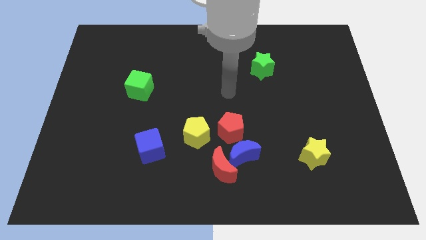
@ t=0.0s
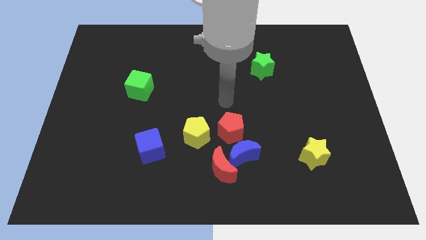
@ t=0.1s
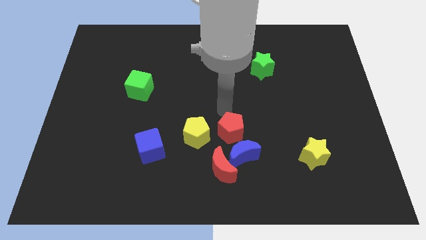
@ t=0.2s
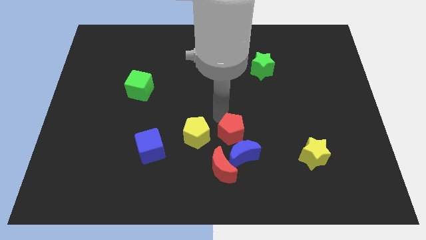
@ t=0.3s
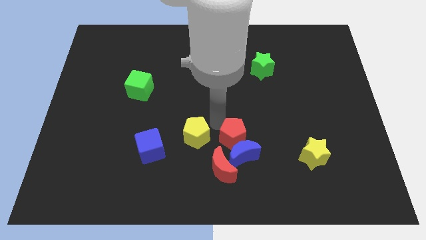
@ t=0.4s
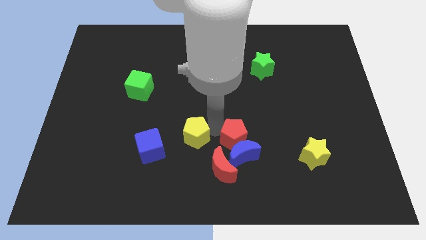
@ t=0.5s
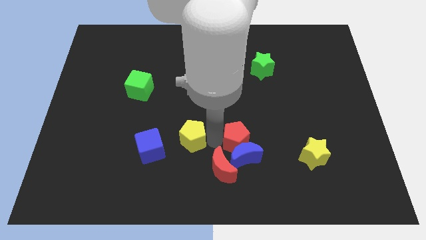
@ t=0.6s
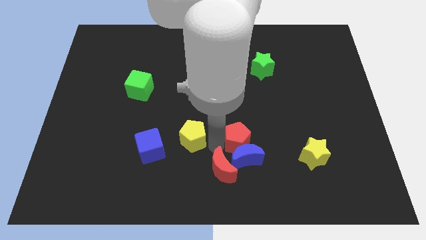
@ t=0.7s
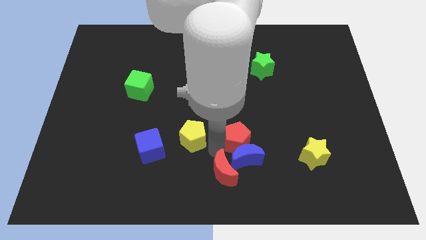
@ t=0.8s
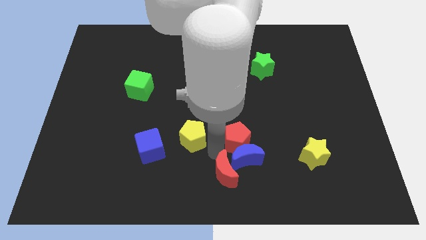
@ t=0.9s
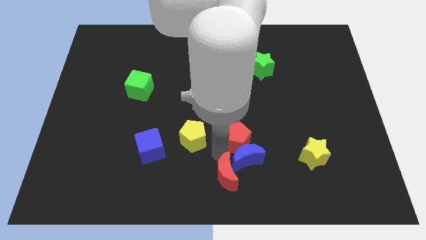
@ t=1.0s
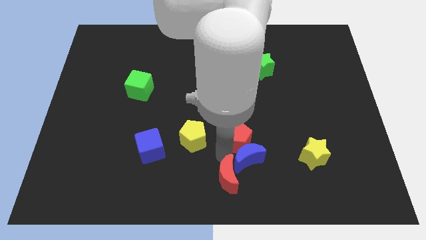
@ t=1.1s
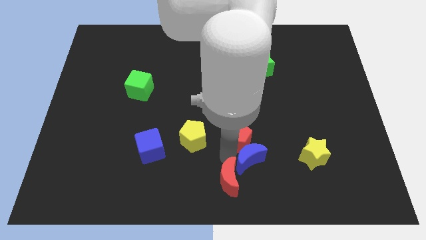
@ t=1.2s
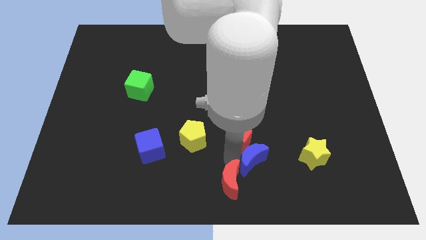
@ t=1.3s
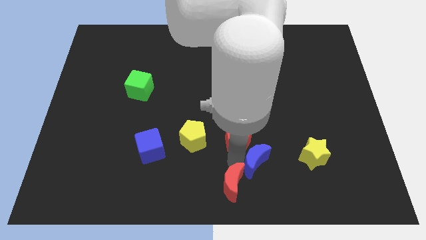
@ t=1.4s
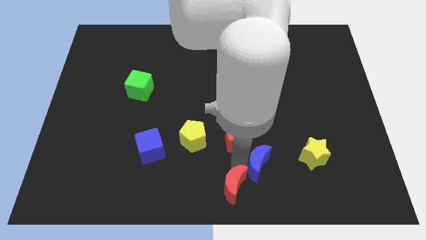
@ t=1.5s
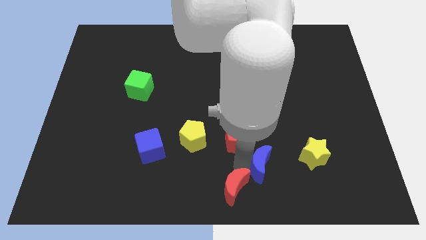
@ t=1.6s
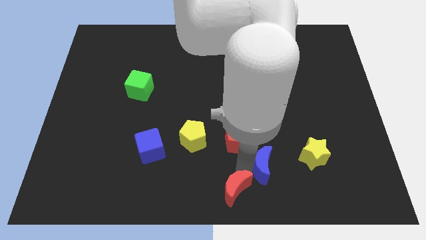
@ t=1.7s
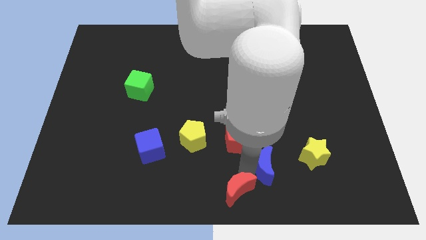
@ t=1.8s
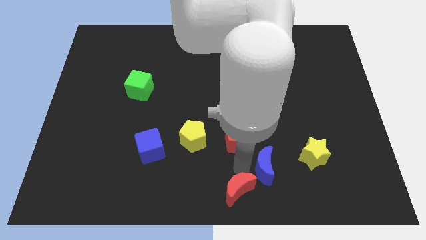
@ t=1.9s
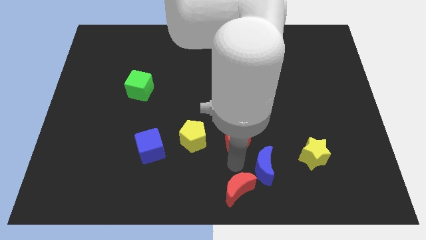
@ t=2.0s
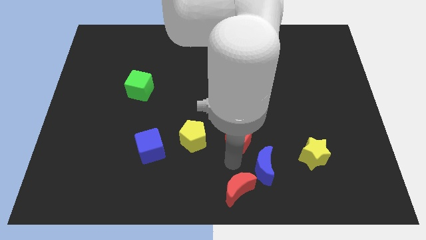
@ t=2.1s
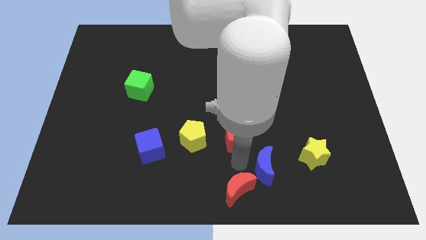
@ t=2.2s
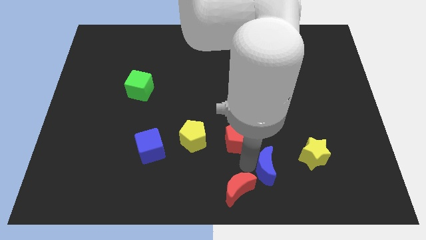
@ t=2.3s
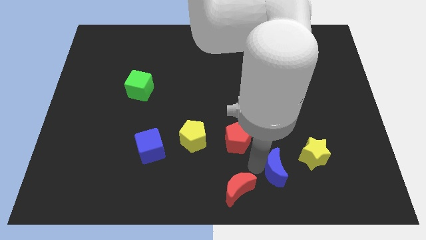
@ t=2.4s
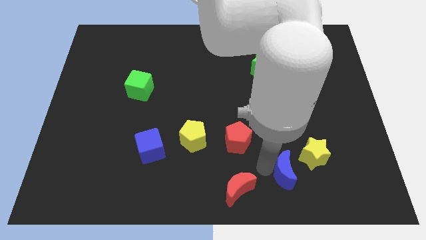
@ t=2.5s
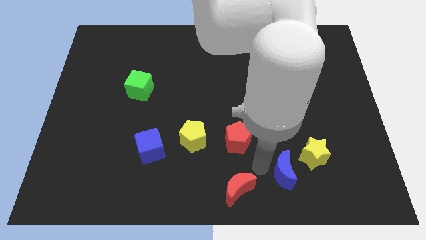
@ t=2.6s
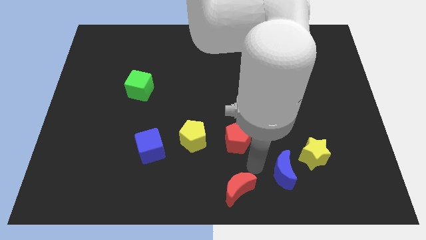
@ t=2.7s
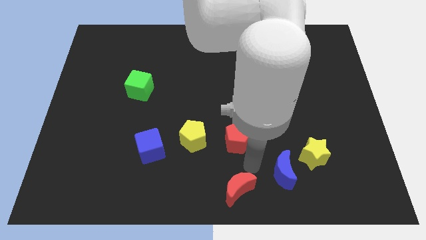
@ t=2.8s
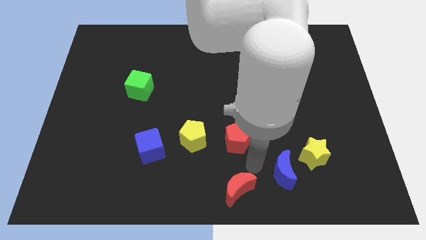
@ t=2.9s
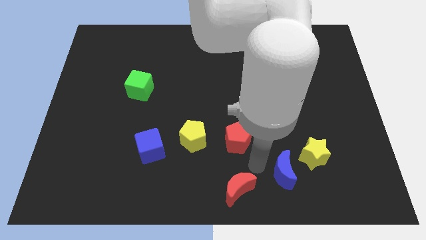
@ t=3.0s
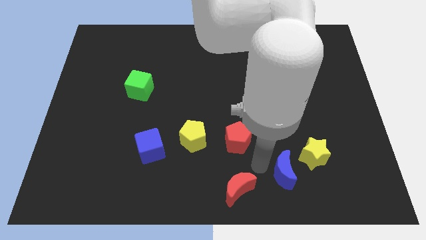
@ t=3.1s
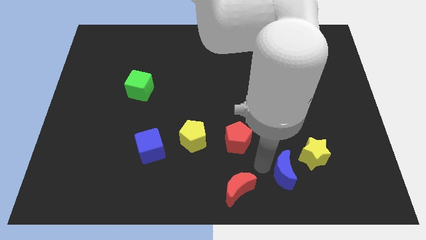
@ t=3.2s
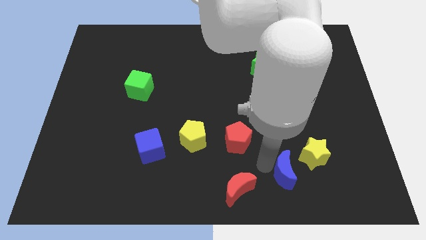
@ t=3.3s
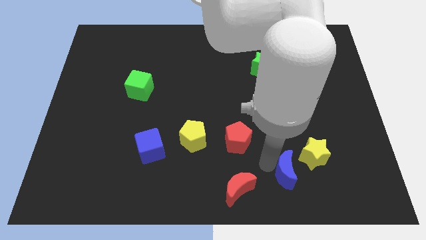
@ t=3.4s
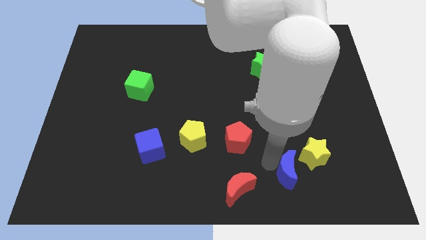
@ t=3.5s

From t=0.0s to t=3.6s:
separate the blue moon from the red moon and red pentagon

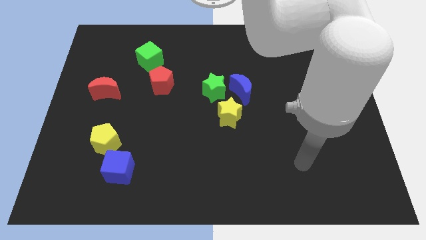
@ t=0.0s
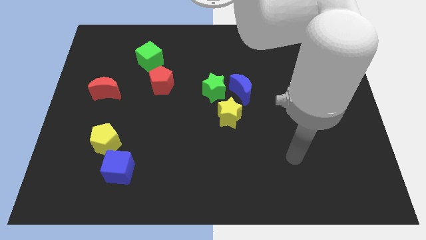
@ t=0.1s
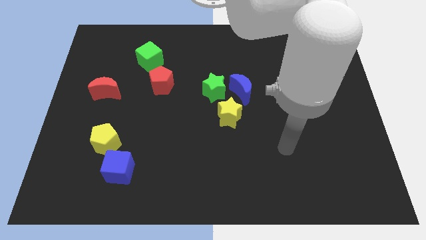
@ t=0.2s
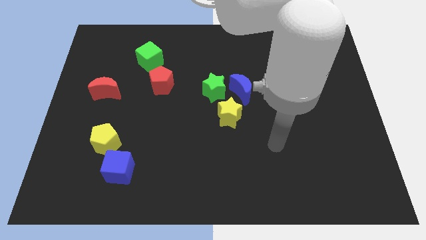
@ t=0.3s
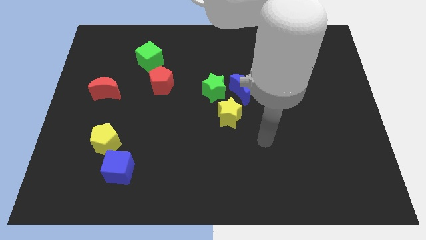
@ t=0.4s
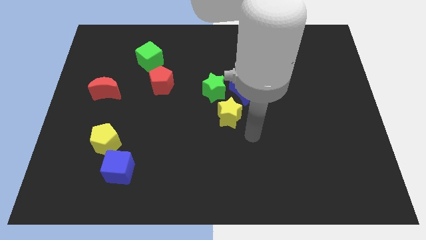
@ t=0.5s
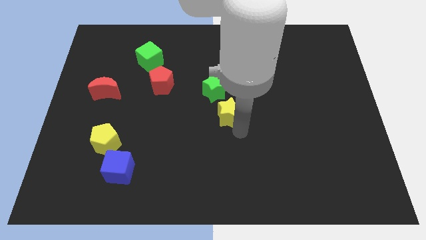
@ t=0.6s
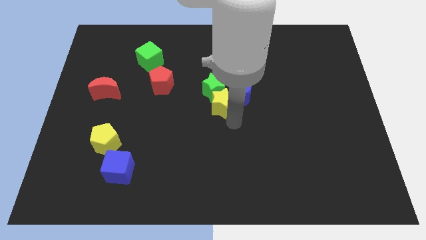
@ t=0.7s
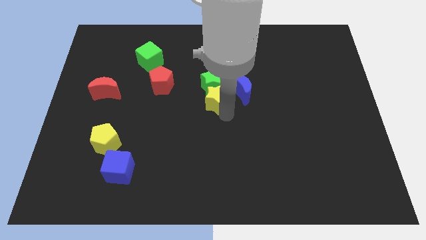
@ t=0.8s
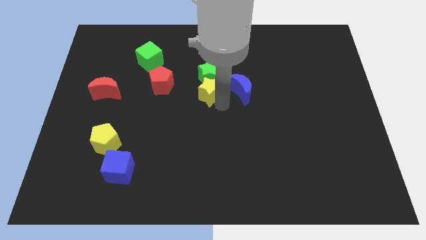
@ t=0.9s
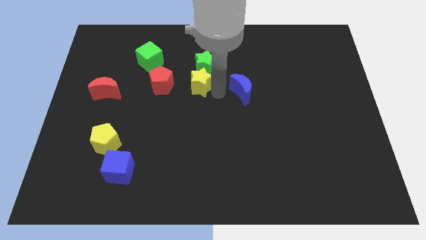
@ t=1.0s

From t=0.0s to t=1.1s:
separate the blue moon from the green star and yellow star

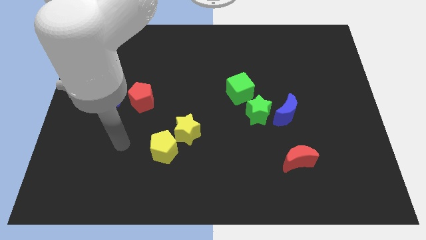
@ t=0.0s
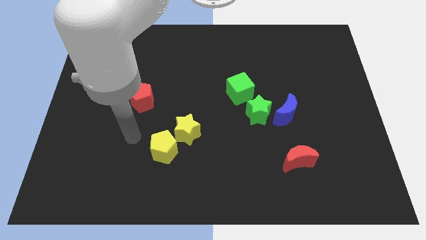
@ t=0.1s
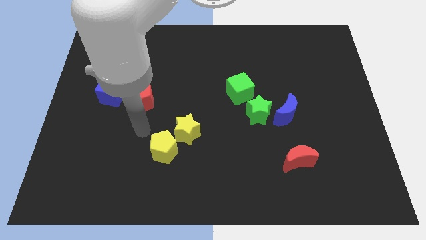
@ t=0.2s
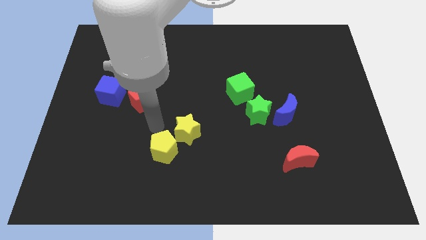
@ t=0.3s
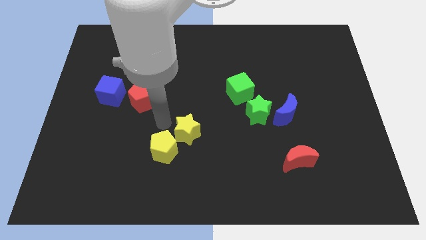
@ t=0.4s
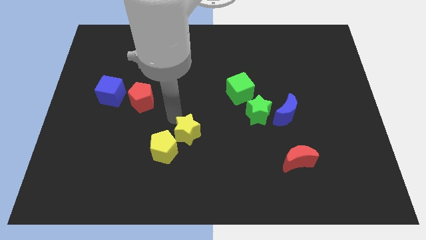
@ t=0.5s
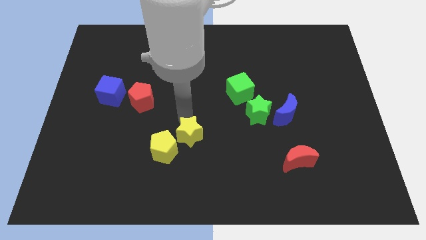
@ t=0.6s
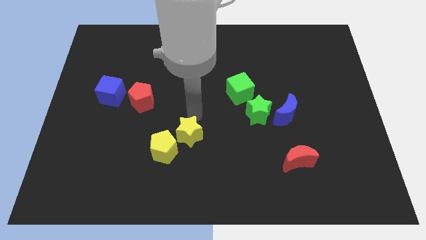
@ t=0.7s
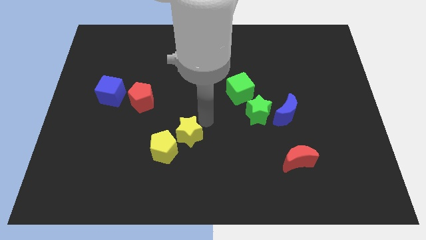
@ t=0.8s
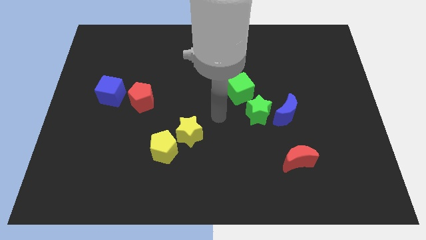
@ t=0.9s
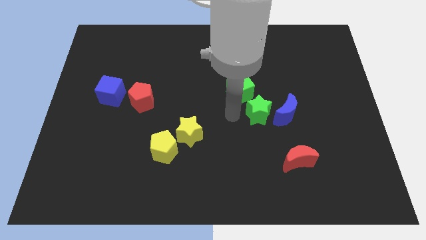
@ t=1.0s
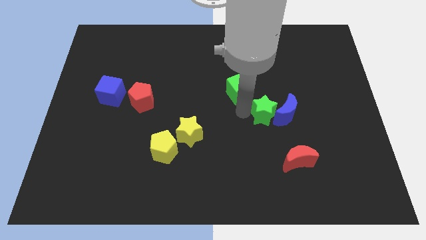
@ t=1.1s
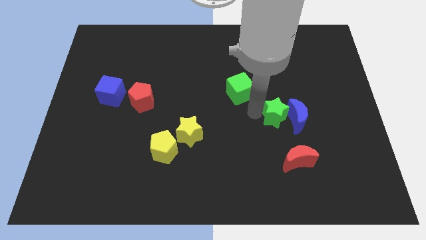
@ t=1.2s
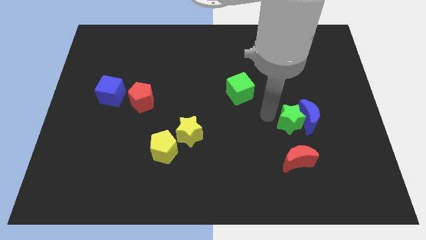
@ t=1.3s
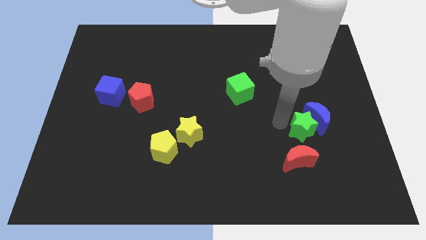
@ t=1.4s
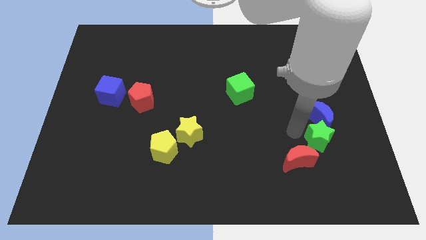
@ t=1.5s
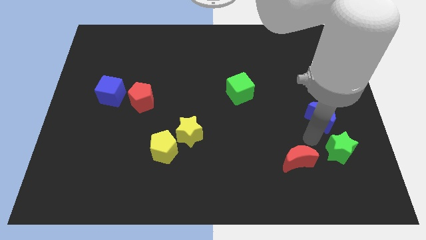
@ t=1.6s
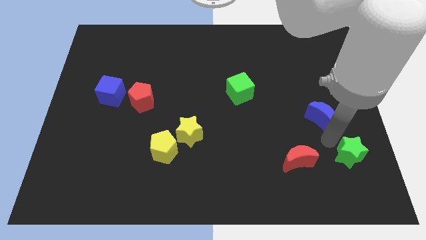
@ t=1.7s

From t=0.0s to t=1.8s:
pull the blue moon apart from the green star

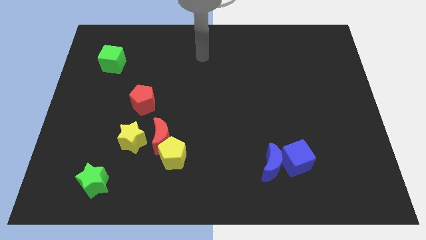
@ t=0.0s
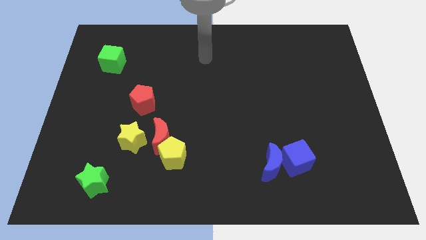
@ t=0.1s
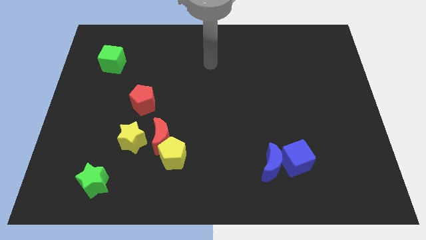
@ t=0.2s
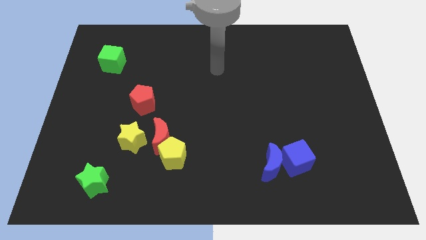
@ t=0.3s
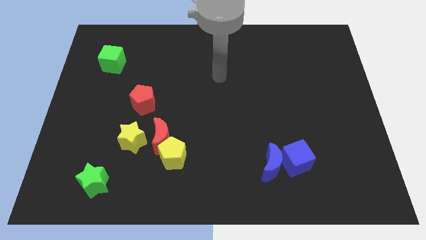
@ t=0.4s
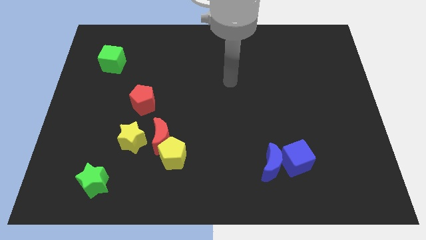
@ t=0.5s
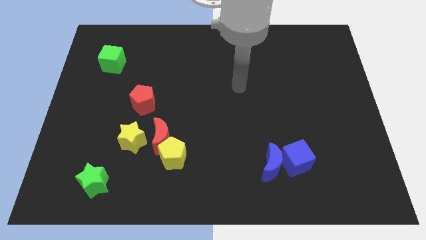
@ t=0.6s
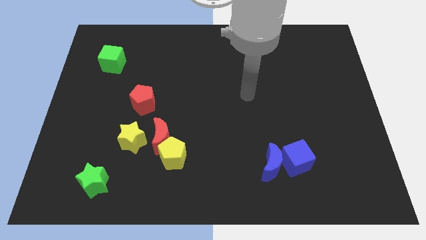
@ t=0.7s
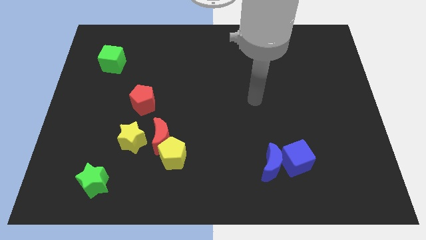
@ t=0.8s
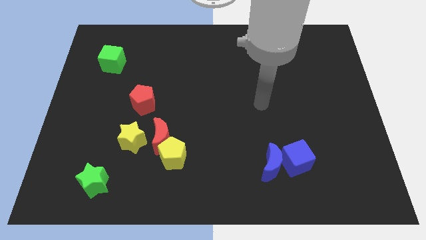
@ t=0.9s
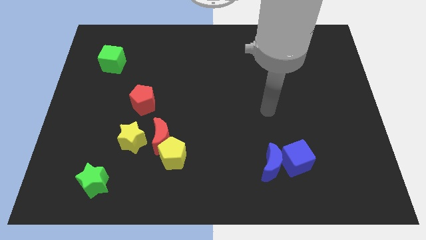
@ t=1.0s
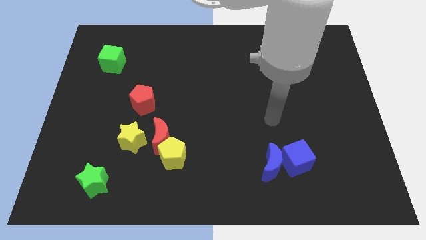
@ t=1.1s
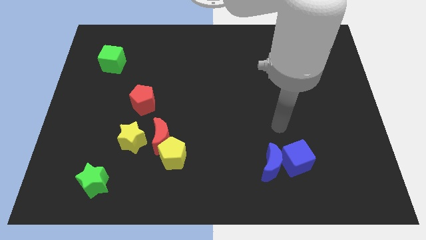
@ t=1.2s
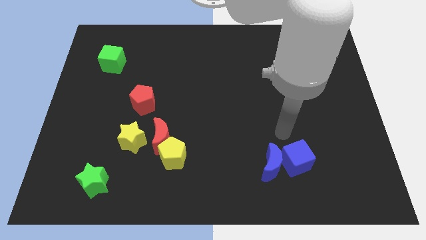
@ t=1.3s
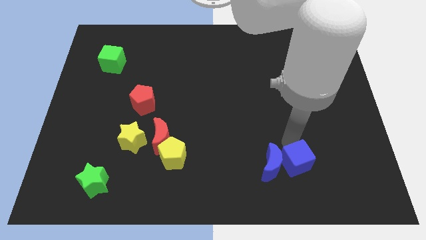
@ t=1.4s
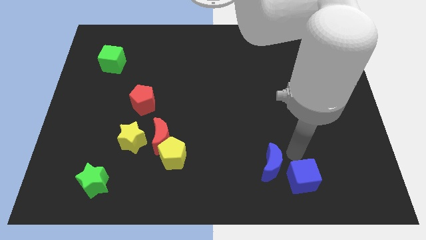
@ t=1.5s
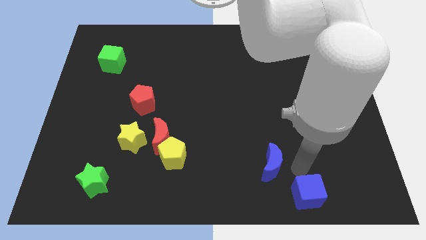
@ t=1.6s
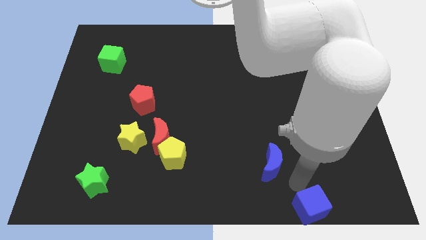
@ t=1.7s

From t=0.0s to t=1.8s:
move the blue moon away from the blue cube

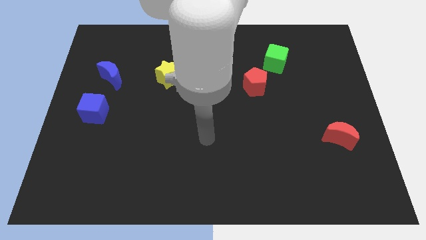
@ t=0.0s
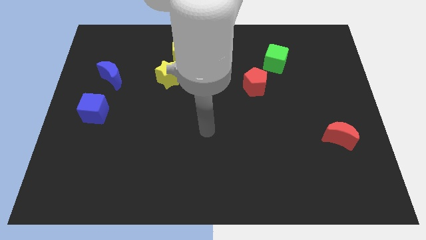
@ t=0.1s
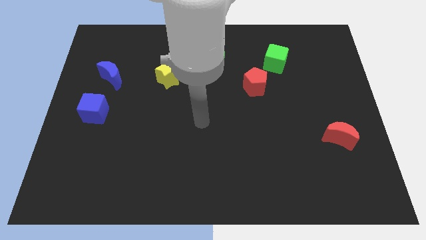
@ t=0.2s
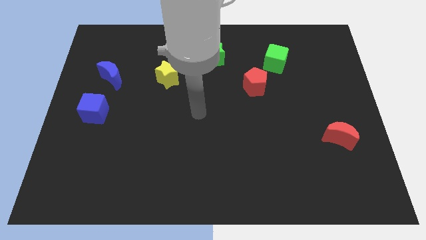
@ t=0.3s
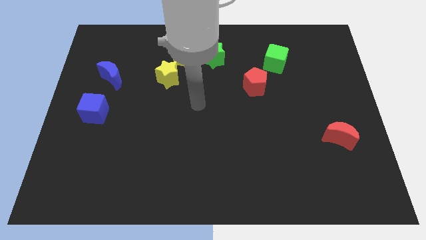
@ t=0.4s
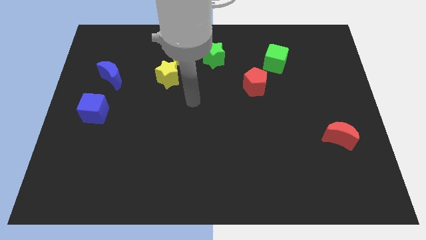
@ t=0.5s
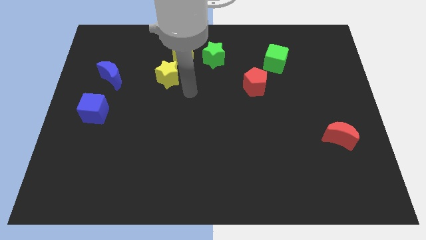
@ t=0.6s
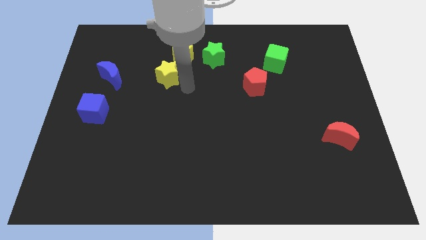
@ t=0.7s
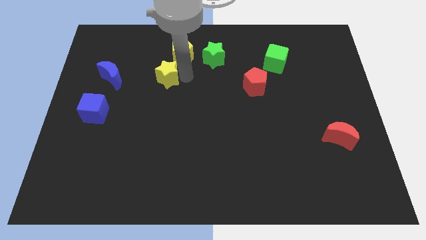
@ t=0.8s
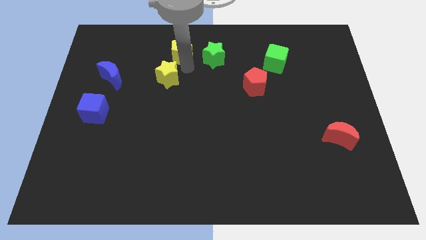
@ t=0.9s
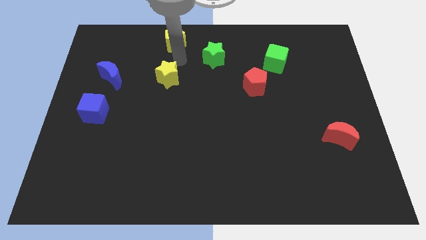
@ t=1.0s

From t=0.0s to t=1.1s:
separate the yellow star from the yellow pentagon
